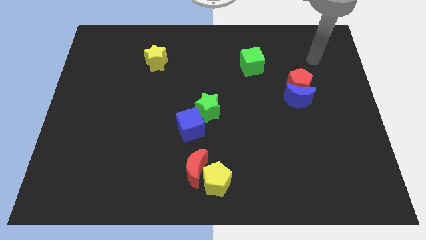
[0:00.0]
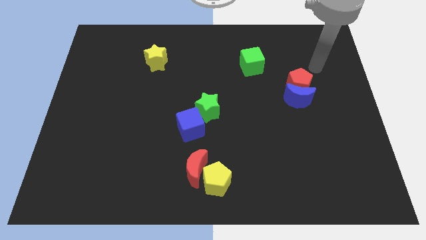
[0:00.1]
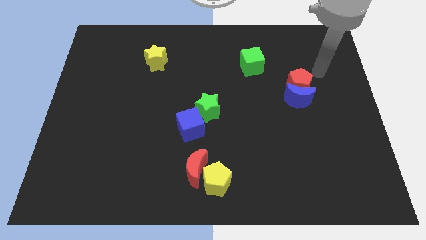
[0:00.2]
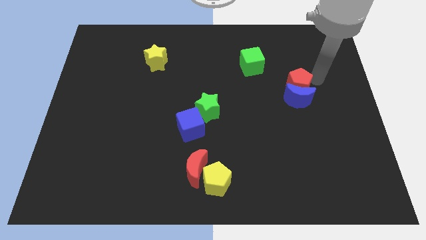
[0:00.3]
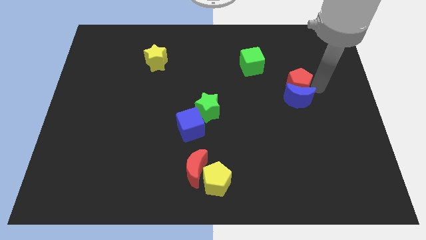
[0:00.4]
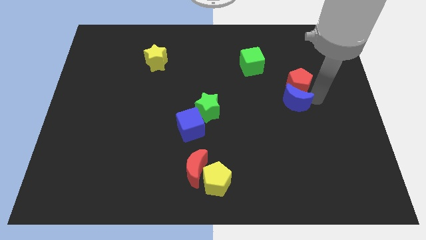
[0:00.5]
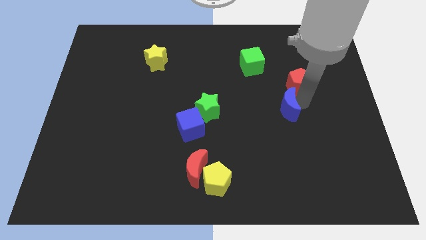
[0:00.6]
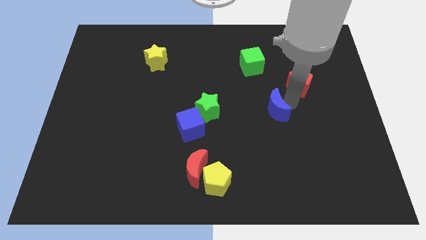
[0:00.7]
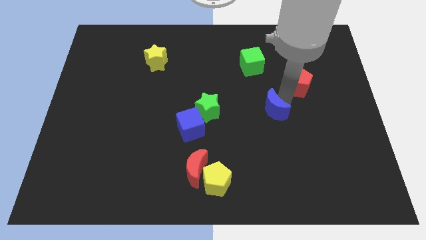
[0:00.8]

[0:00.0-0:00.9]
move the red pentagon away from the blue moon

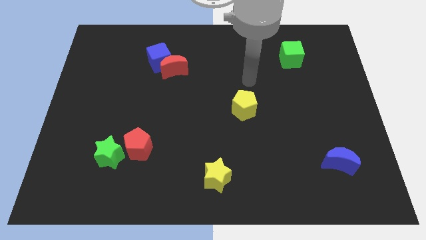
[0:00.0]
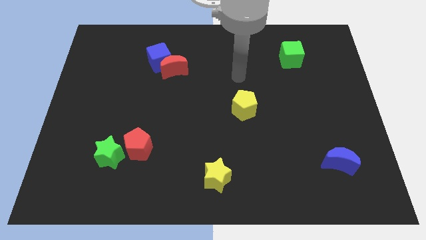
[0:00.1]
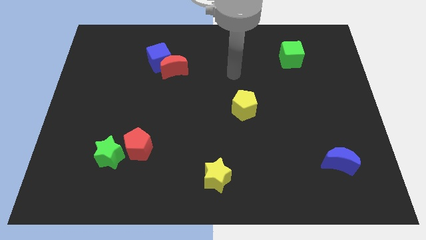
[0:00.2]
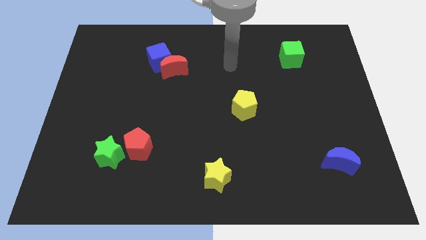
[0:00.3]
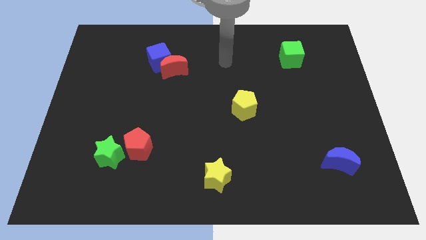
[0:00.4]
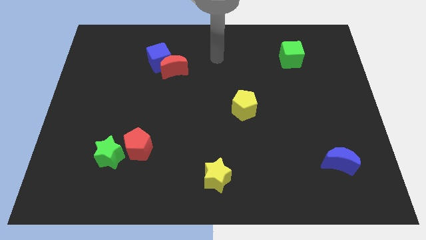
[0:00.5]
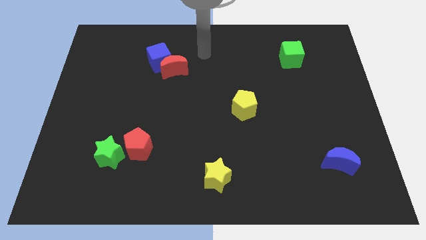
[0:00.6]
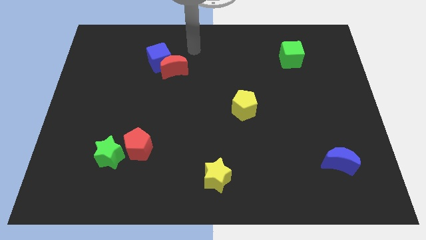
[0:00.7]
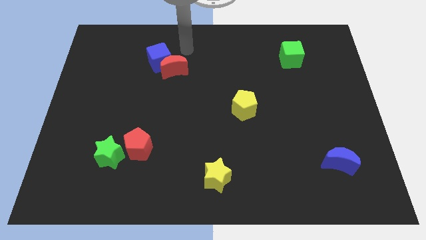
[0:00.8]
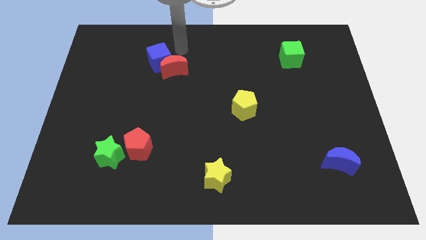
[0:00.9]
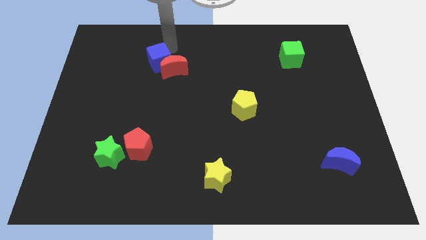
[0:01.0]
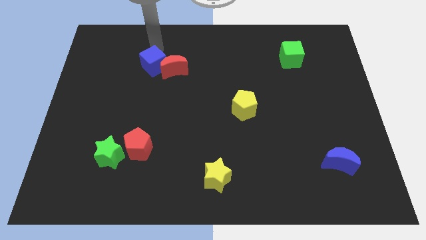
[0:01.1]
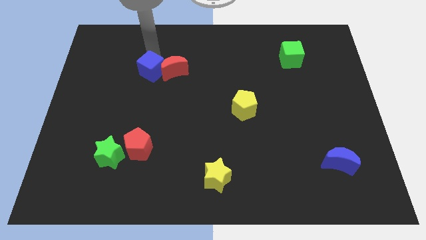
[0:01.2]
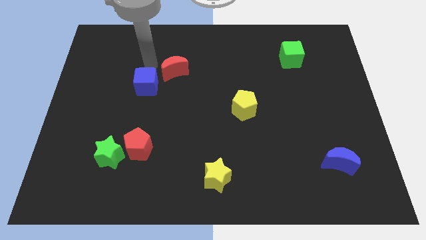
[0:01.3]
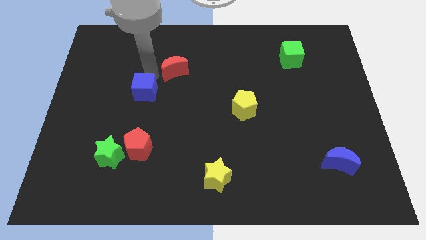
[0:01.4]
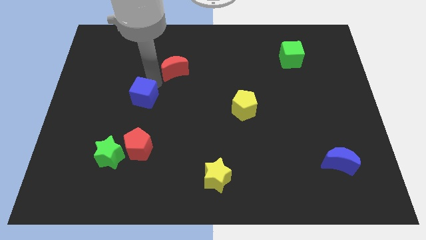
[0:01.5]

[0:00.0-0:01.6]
move the red moon away from the blue cube

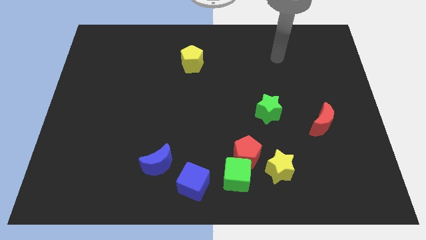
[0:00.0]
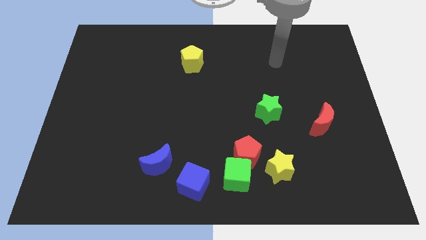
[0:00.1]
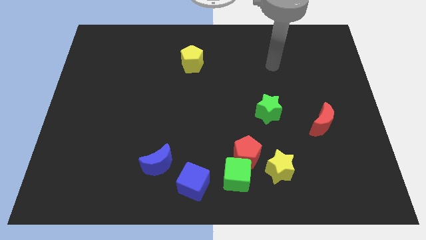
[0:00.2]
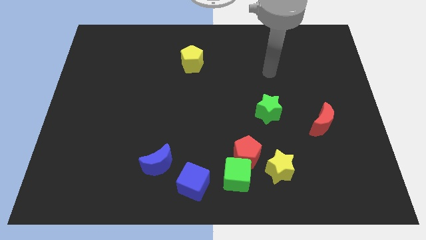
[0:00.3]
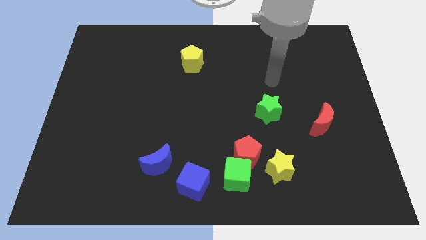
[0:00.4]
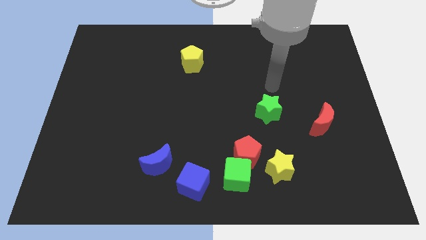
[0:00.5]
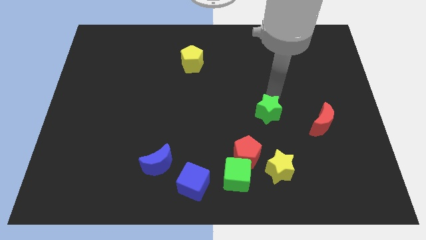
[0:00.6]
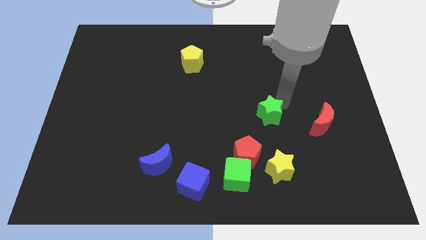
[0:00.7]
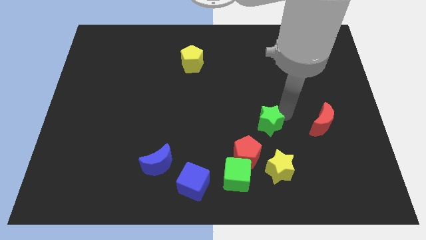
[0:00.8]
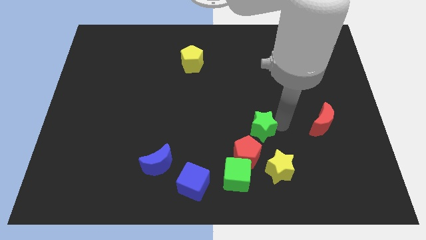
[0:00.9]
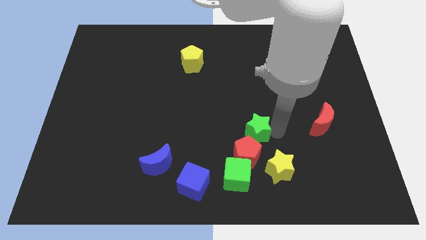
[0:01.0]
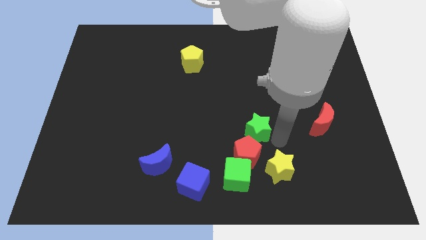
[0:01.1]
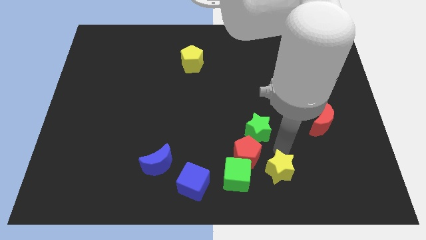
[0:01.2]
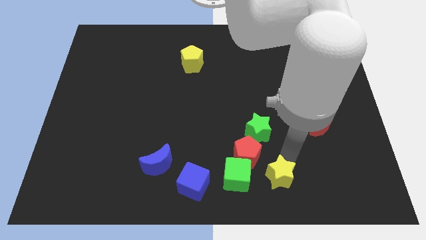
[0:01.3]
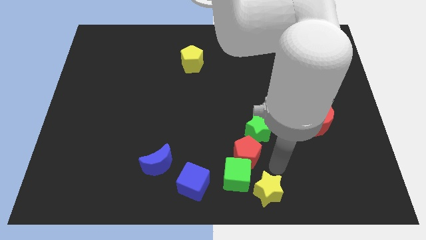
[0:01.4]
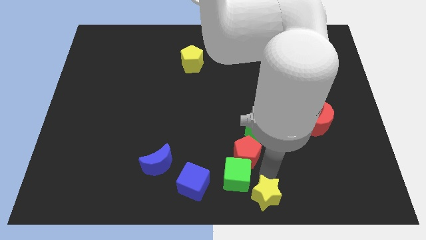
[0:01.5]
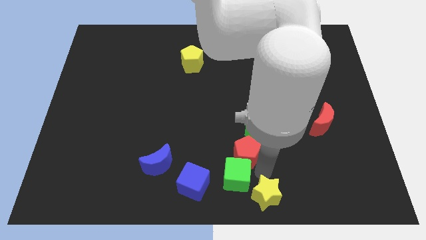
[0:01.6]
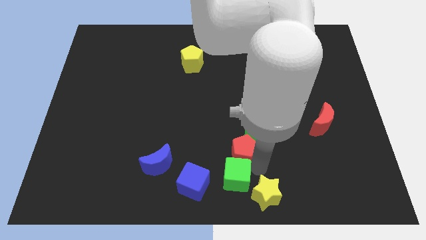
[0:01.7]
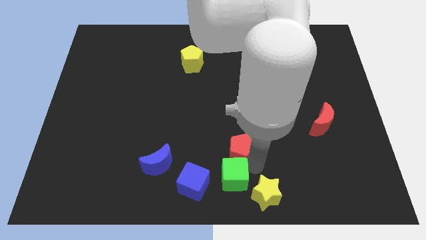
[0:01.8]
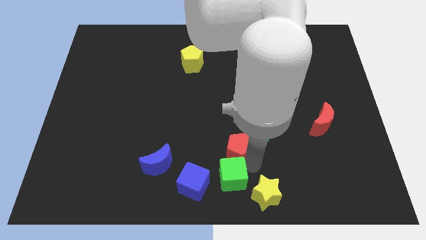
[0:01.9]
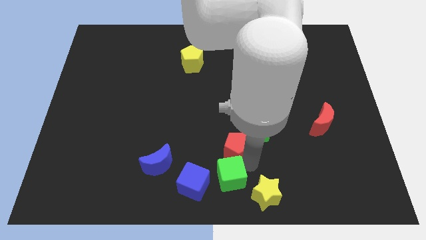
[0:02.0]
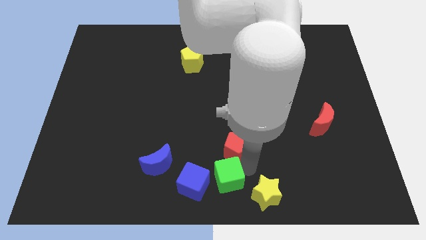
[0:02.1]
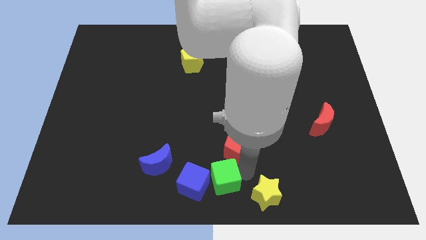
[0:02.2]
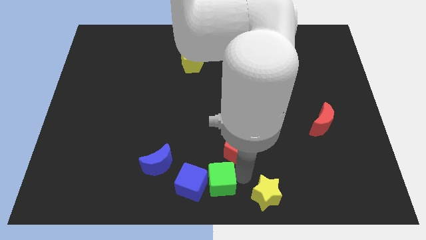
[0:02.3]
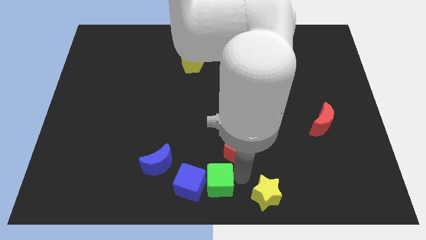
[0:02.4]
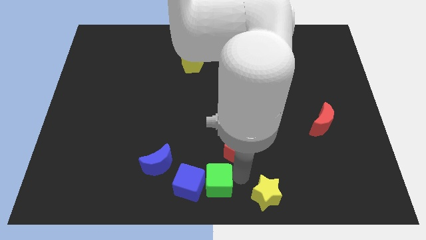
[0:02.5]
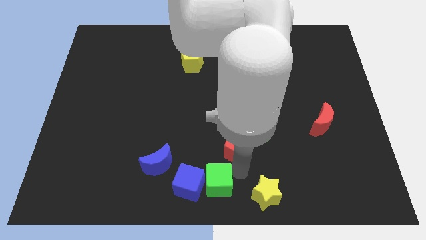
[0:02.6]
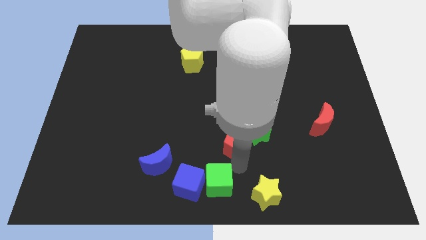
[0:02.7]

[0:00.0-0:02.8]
pull the red pentagon apart from the green cube and yellow star

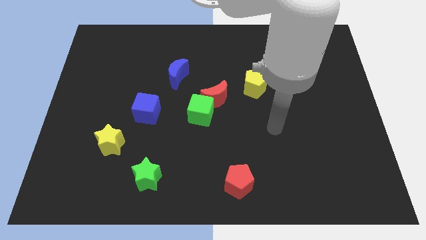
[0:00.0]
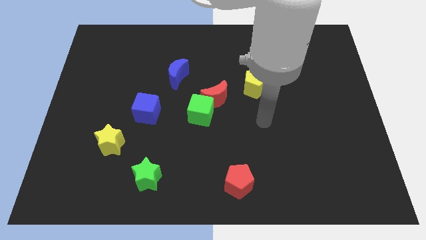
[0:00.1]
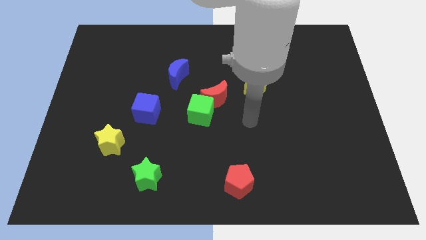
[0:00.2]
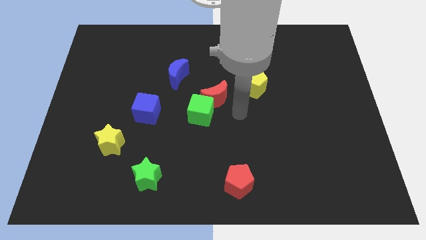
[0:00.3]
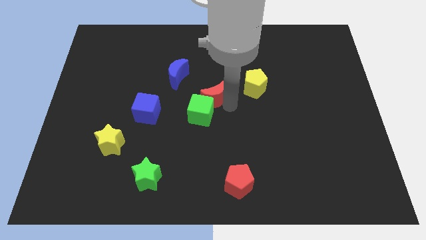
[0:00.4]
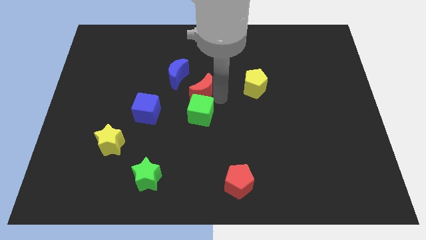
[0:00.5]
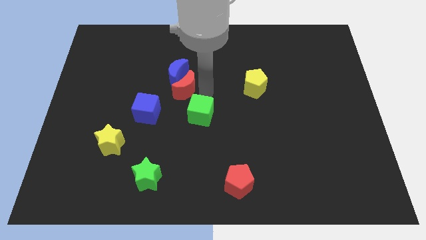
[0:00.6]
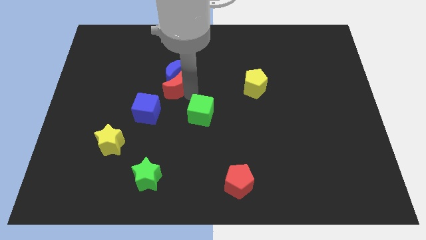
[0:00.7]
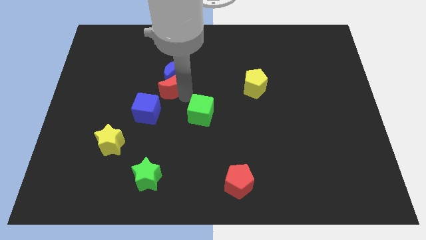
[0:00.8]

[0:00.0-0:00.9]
pull the green cube apart from the red moon

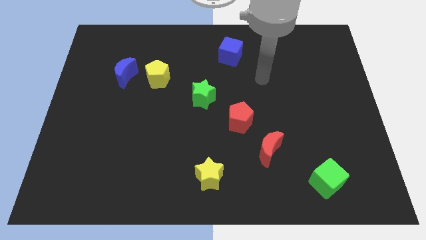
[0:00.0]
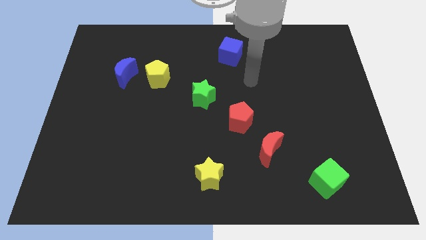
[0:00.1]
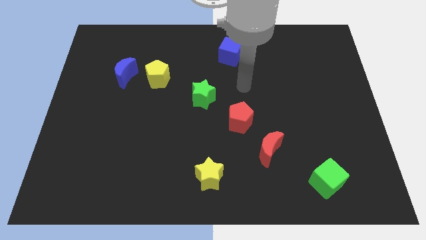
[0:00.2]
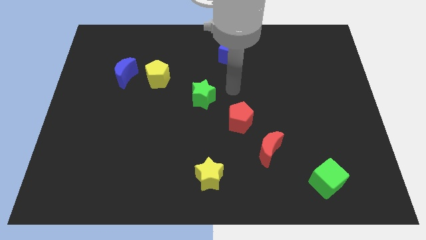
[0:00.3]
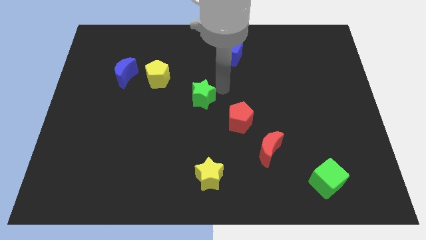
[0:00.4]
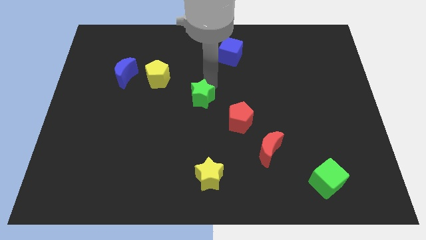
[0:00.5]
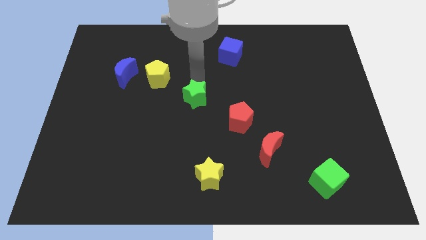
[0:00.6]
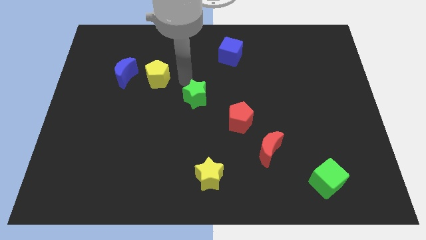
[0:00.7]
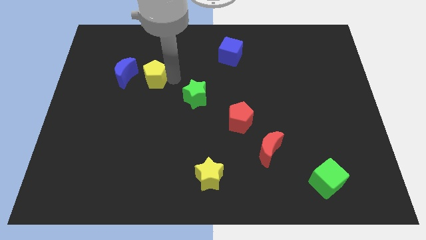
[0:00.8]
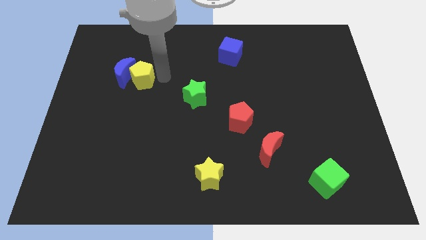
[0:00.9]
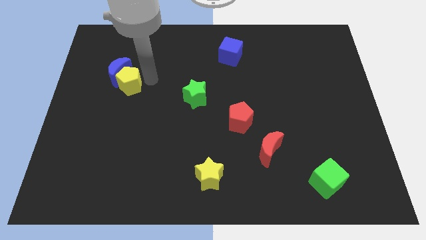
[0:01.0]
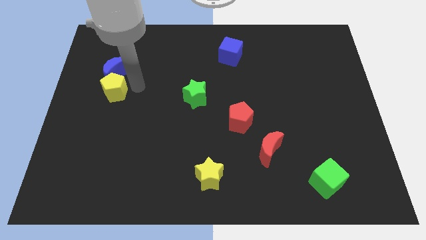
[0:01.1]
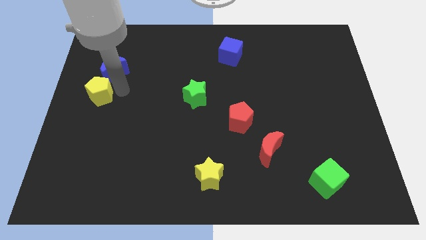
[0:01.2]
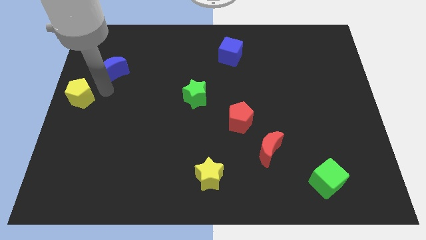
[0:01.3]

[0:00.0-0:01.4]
pull the blue moon apart from the yellow pentagon

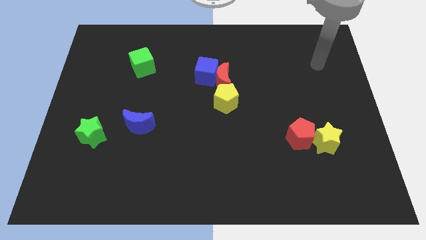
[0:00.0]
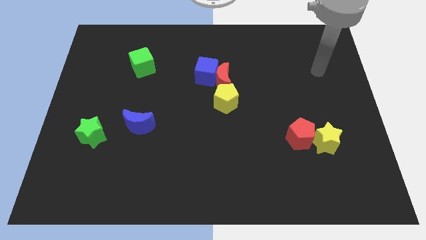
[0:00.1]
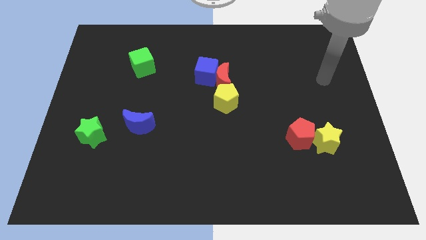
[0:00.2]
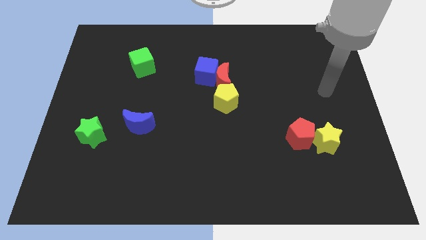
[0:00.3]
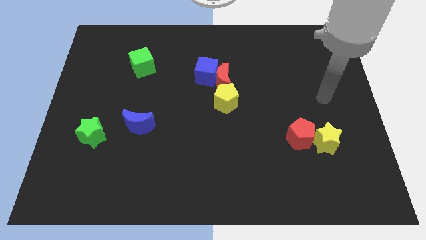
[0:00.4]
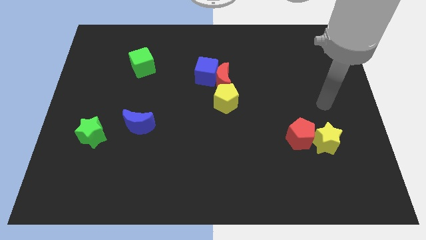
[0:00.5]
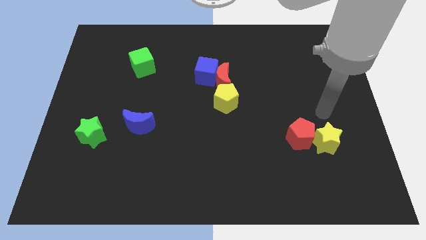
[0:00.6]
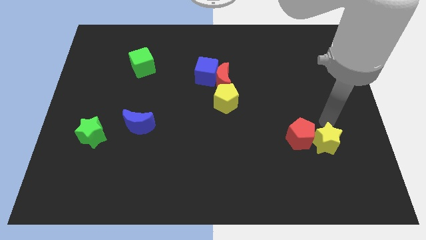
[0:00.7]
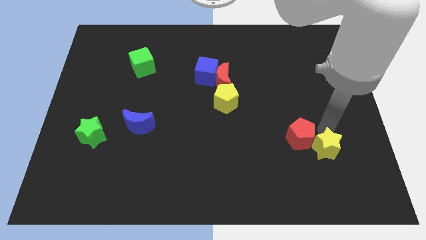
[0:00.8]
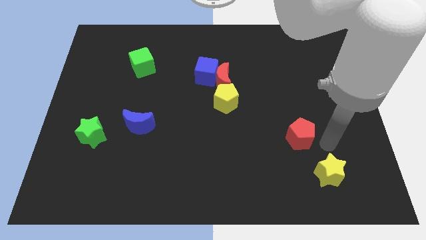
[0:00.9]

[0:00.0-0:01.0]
move the red pentagon away from the yellow star

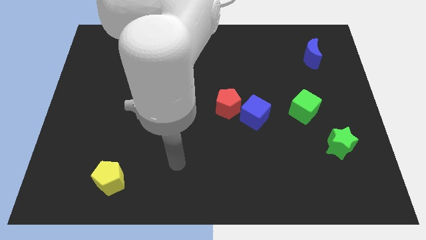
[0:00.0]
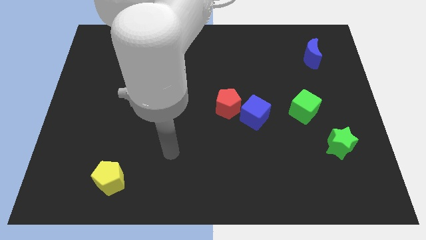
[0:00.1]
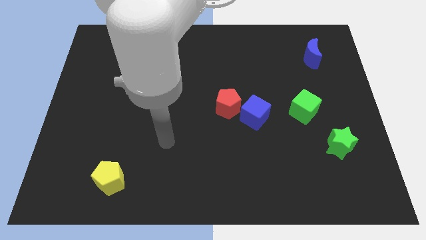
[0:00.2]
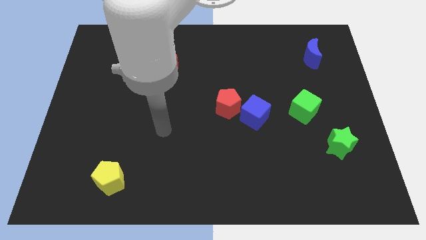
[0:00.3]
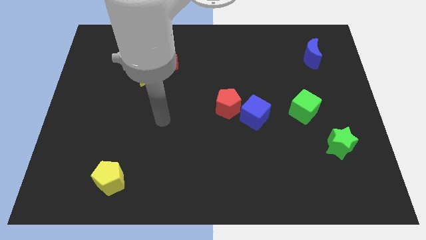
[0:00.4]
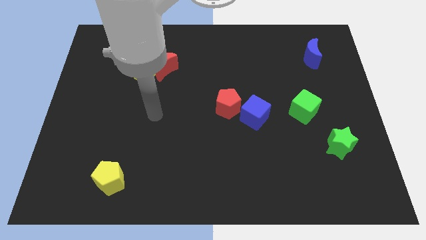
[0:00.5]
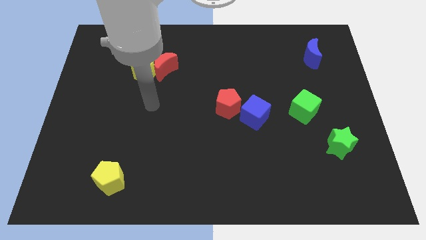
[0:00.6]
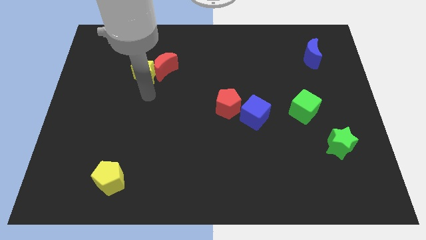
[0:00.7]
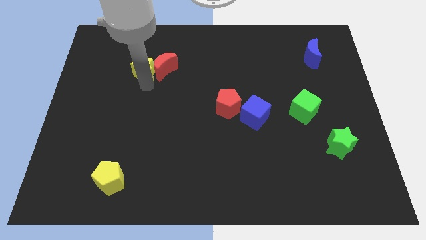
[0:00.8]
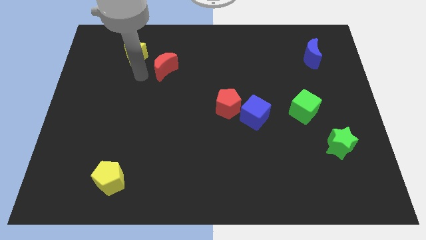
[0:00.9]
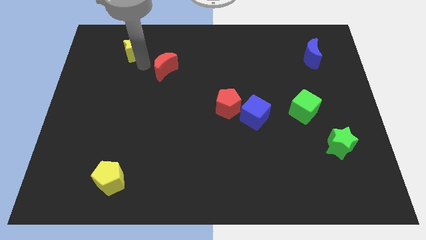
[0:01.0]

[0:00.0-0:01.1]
move the red moon away from the yellow star
